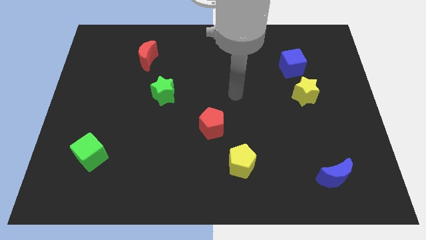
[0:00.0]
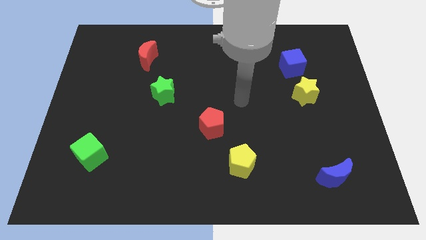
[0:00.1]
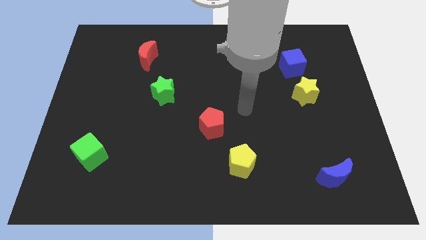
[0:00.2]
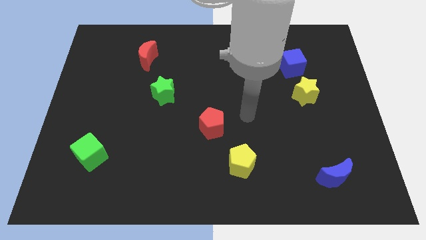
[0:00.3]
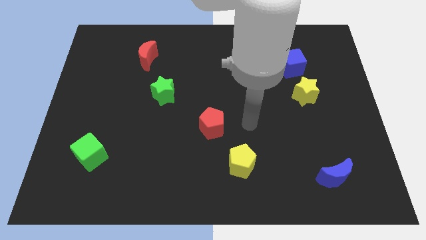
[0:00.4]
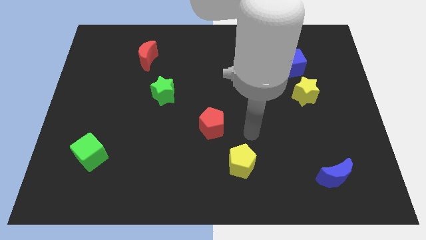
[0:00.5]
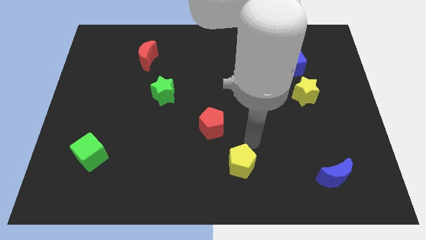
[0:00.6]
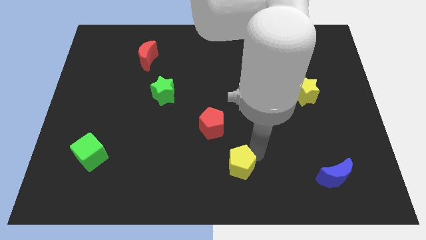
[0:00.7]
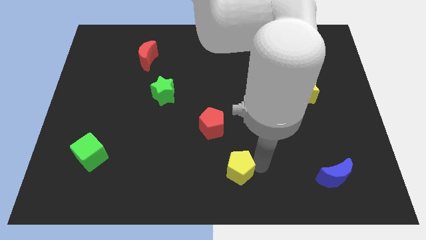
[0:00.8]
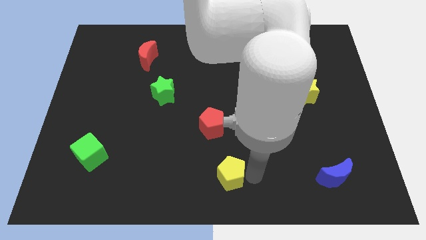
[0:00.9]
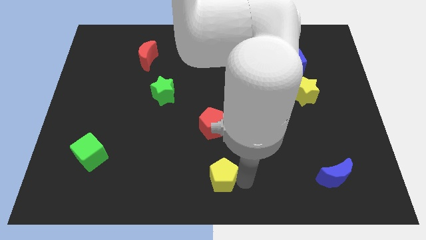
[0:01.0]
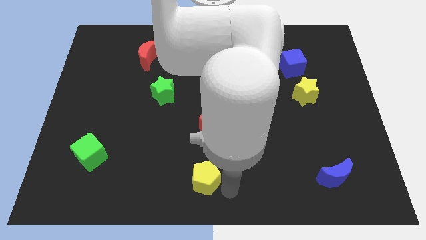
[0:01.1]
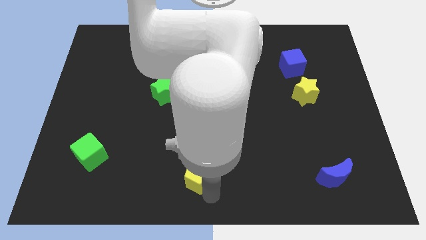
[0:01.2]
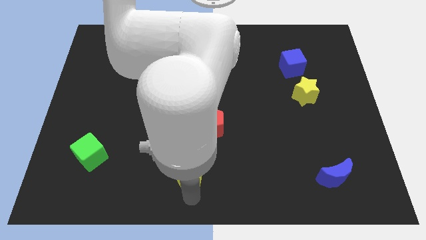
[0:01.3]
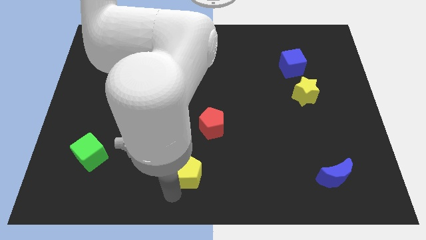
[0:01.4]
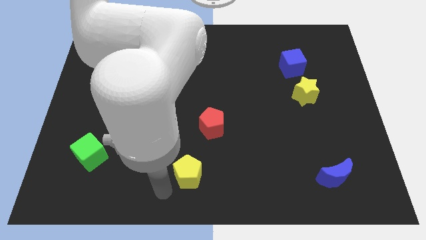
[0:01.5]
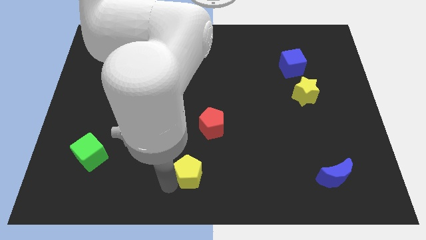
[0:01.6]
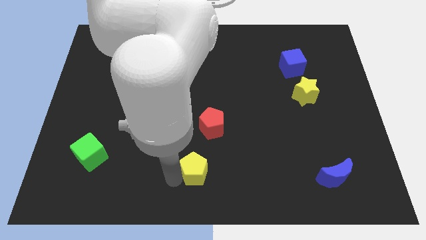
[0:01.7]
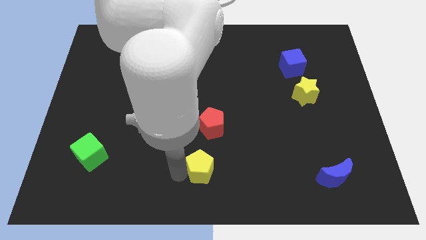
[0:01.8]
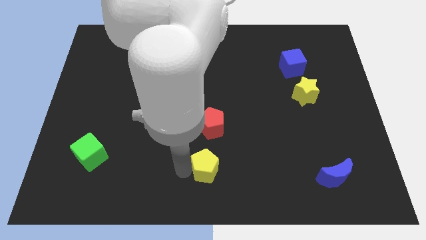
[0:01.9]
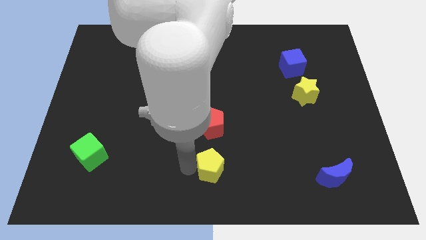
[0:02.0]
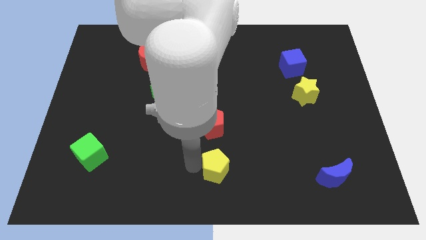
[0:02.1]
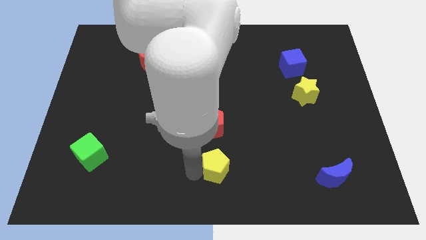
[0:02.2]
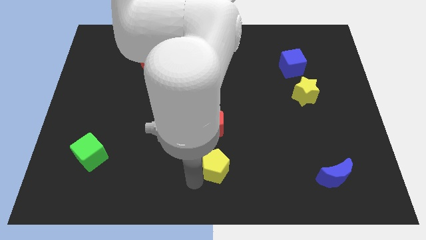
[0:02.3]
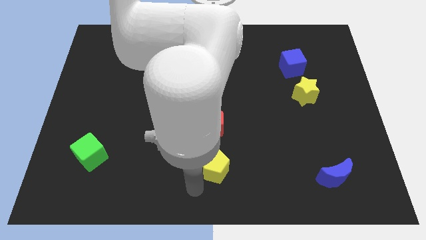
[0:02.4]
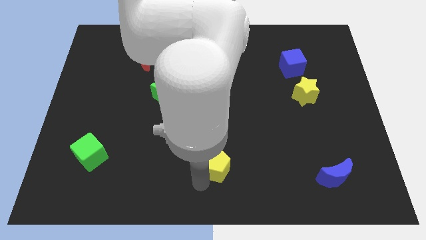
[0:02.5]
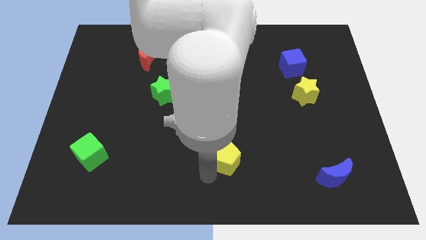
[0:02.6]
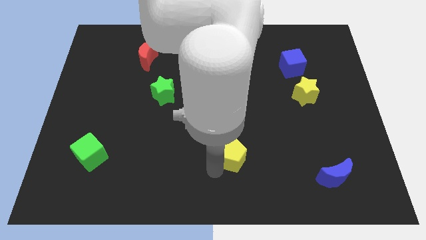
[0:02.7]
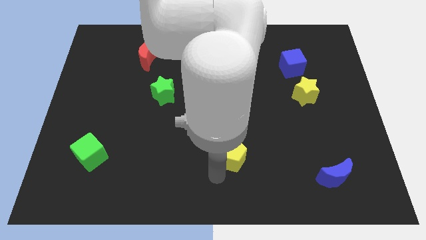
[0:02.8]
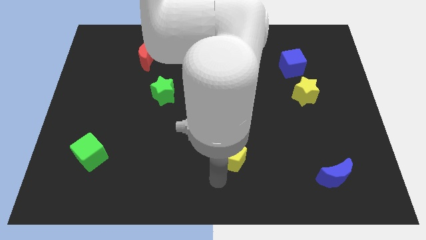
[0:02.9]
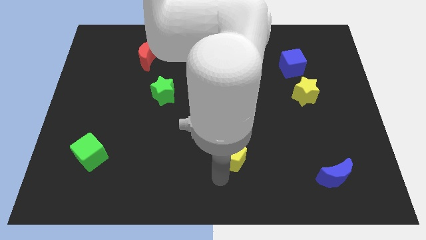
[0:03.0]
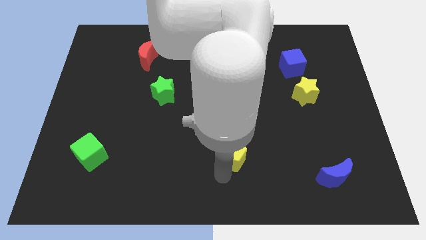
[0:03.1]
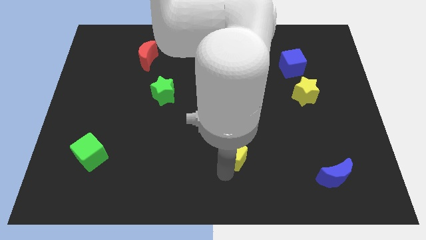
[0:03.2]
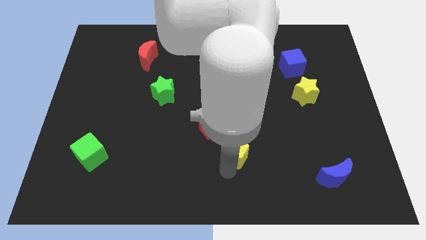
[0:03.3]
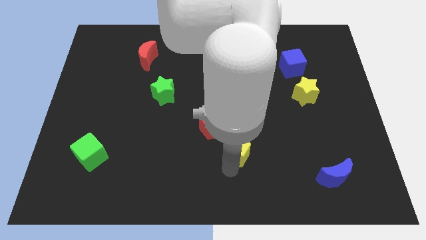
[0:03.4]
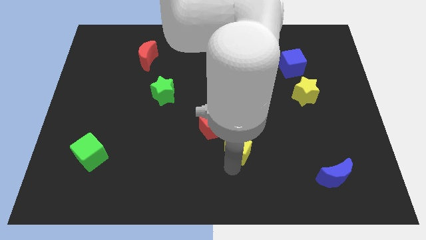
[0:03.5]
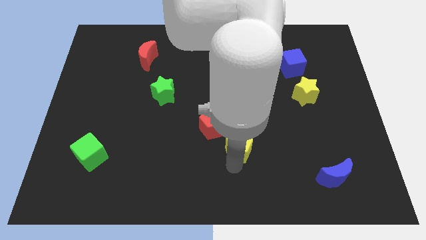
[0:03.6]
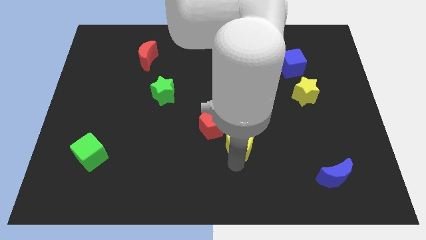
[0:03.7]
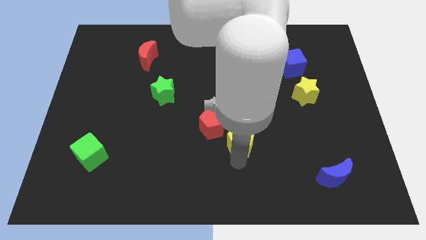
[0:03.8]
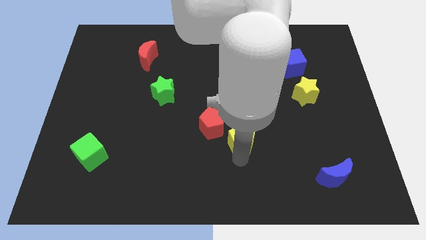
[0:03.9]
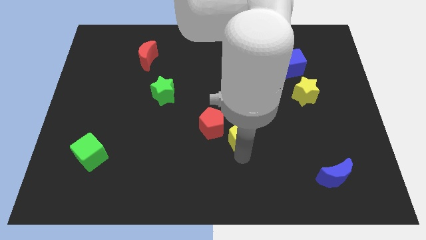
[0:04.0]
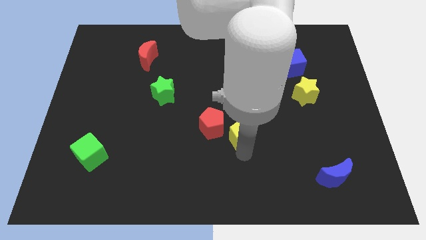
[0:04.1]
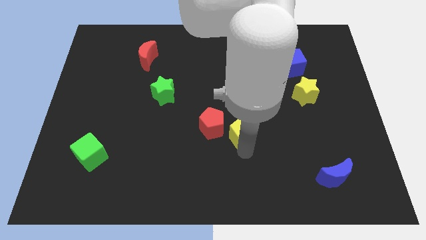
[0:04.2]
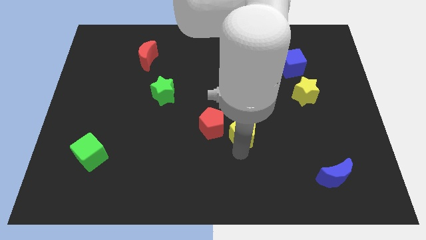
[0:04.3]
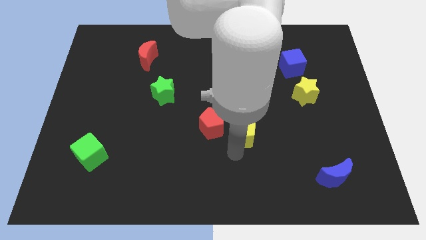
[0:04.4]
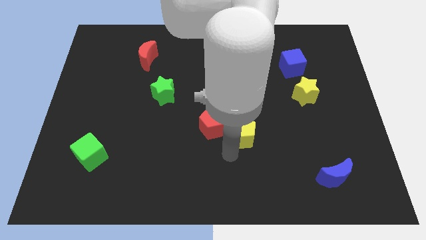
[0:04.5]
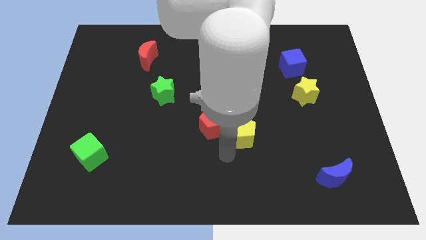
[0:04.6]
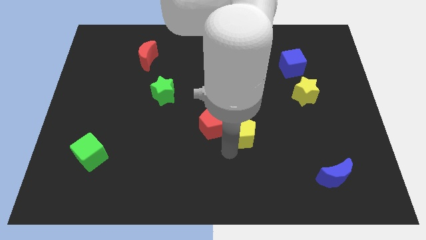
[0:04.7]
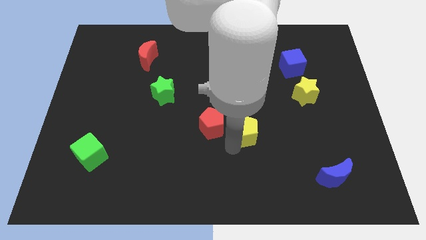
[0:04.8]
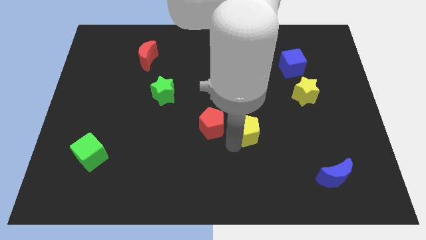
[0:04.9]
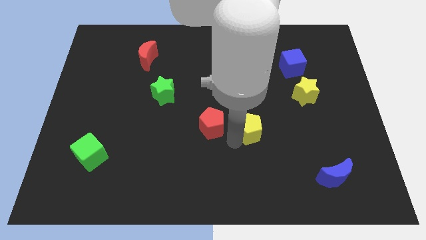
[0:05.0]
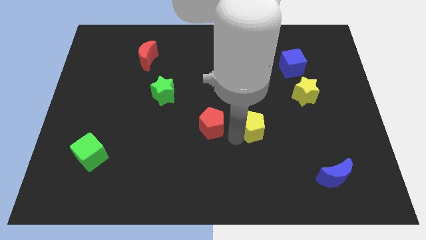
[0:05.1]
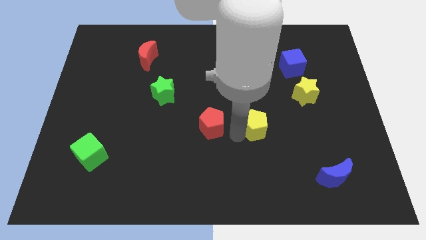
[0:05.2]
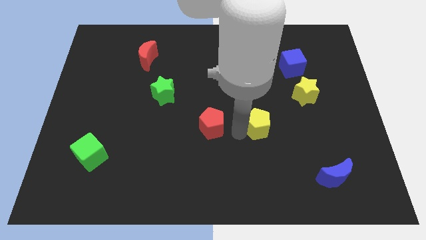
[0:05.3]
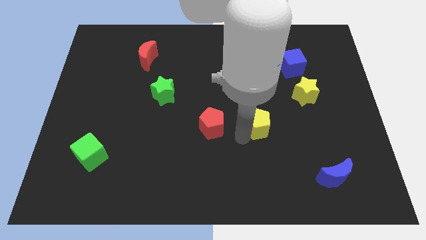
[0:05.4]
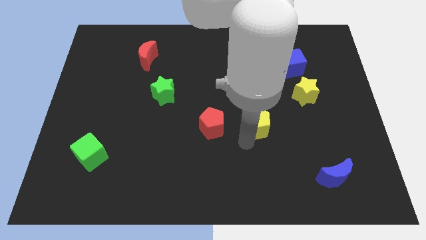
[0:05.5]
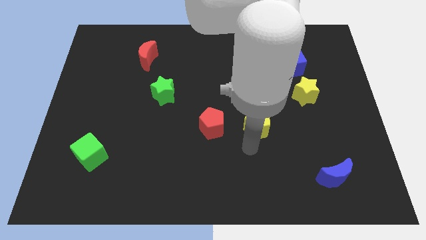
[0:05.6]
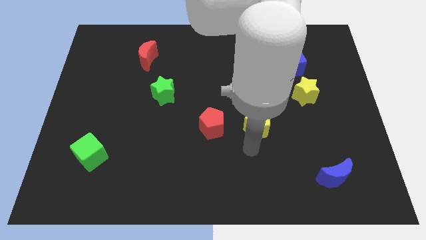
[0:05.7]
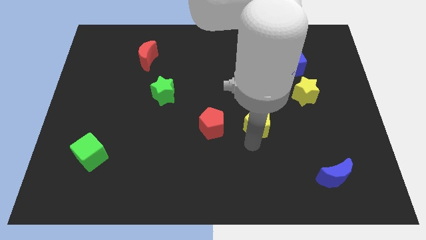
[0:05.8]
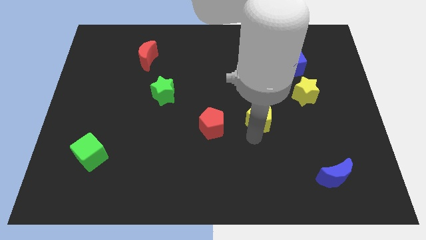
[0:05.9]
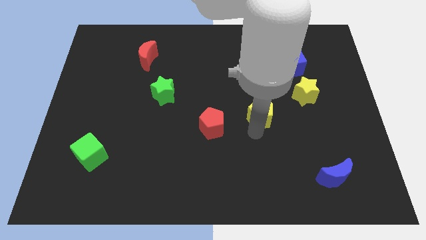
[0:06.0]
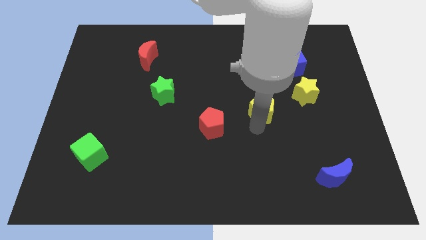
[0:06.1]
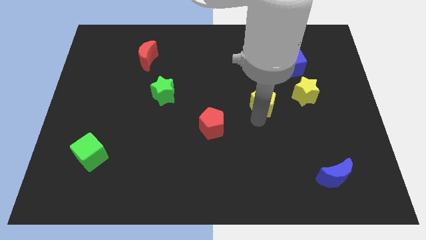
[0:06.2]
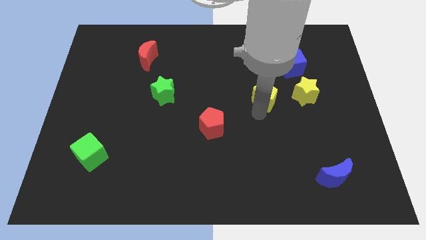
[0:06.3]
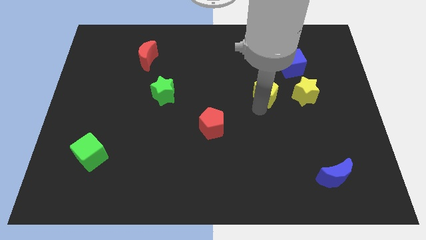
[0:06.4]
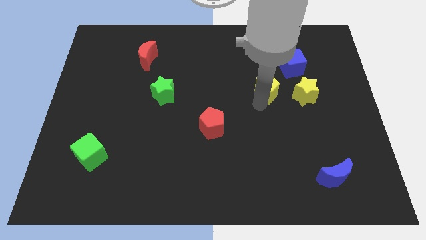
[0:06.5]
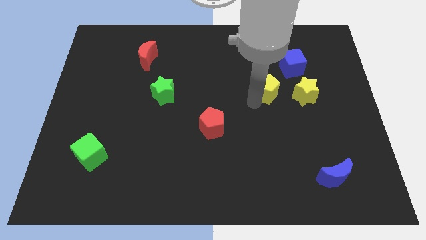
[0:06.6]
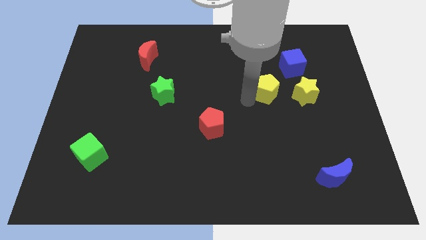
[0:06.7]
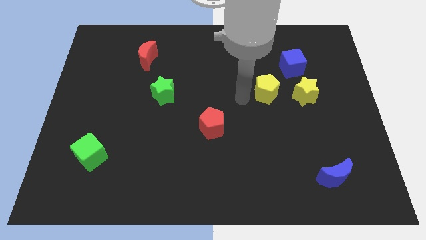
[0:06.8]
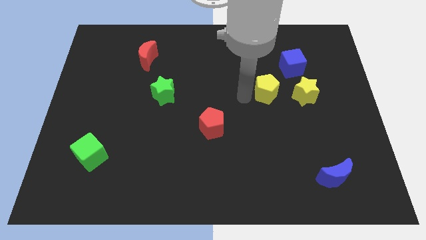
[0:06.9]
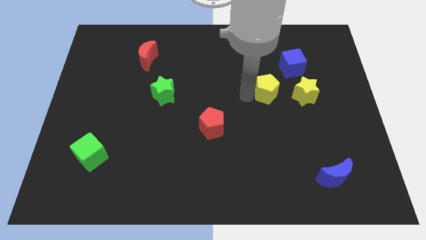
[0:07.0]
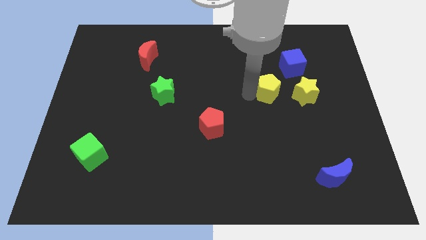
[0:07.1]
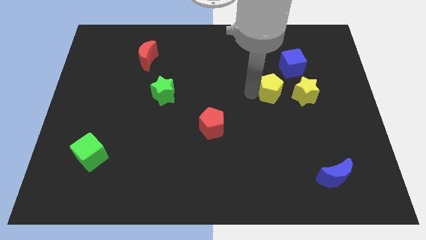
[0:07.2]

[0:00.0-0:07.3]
slide the yellow pentagon to the top left side of the yellow star
